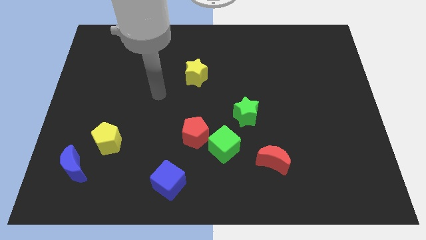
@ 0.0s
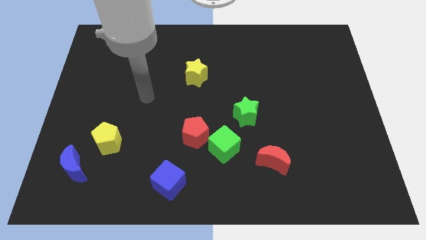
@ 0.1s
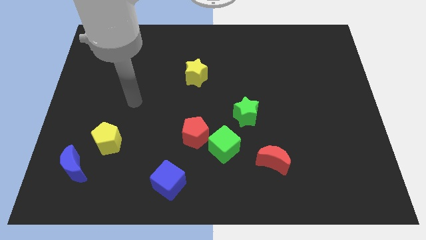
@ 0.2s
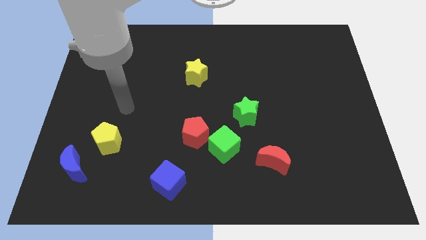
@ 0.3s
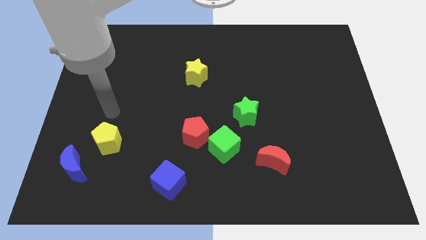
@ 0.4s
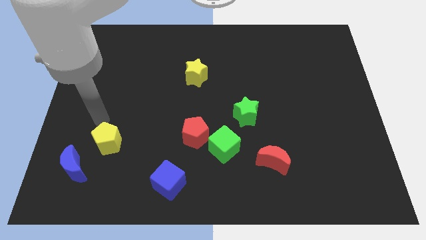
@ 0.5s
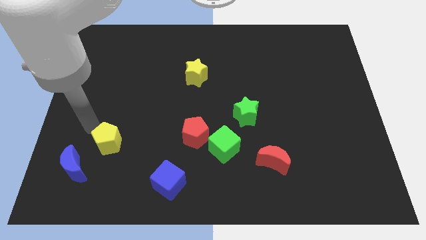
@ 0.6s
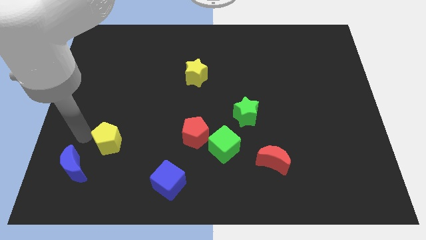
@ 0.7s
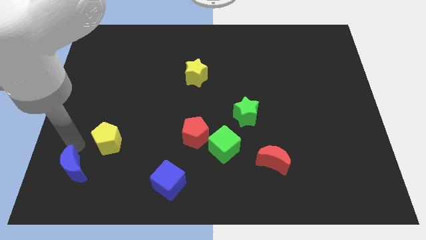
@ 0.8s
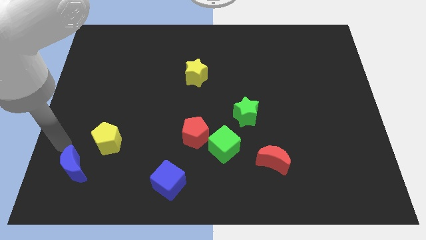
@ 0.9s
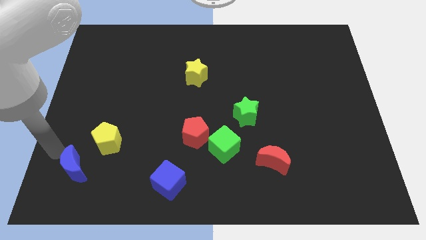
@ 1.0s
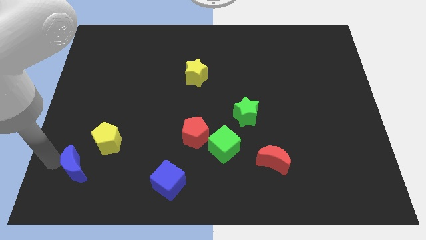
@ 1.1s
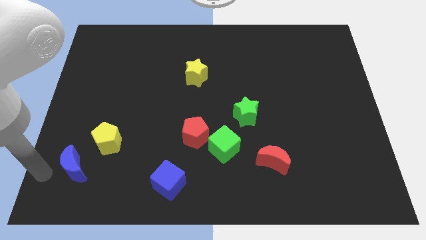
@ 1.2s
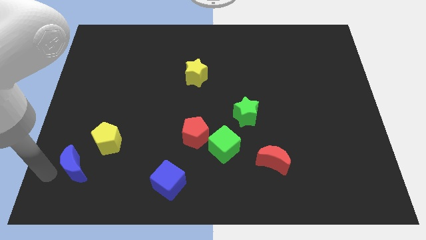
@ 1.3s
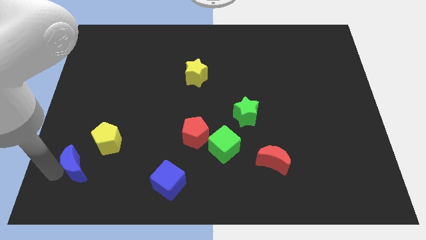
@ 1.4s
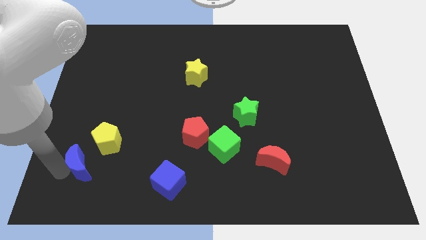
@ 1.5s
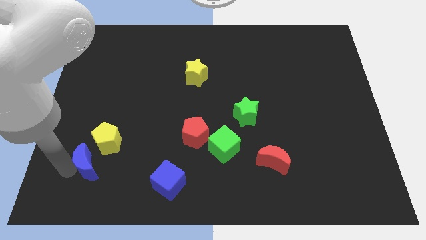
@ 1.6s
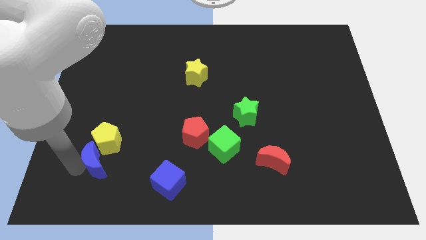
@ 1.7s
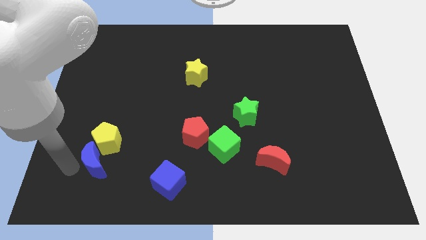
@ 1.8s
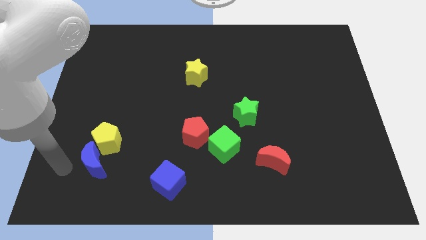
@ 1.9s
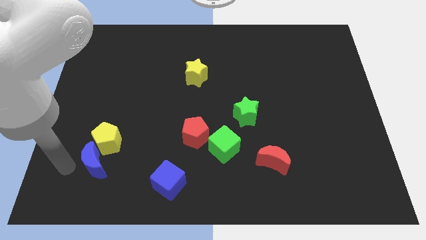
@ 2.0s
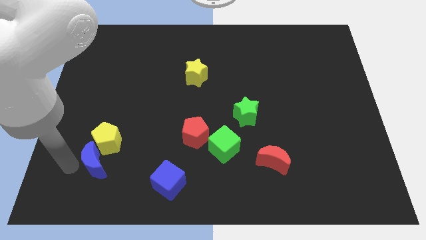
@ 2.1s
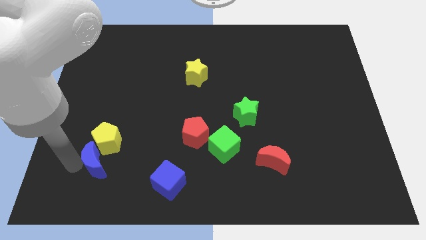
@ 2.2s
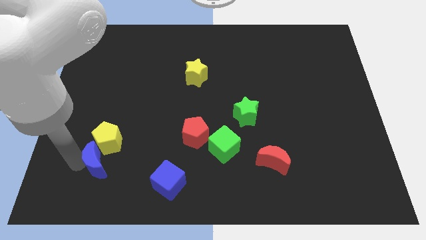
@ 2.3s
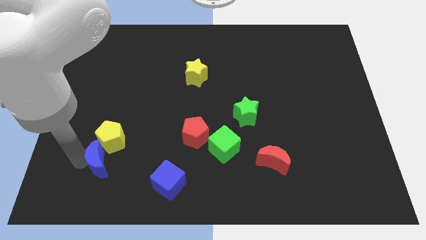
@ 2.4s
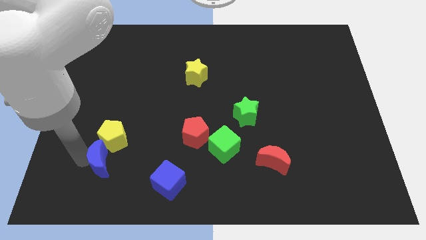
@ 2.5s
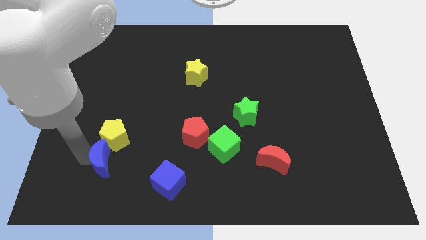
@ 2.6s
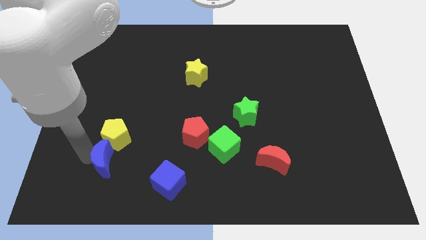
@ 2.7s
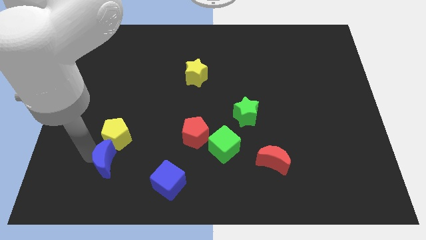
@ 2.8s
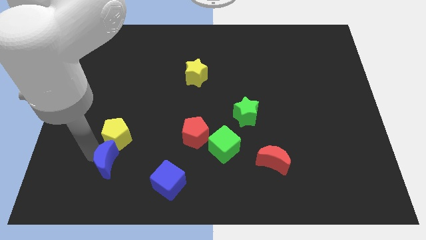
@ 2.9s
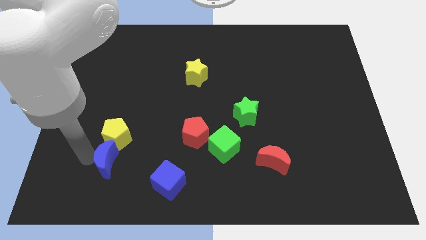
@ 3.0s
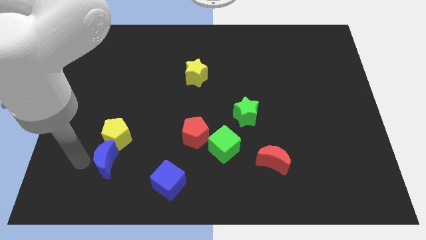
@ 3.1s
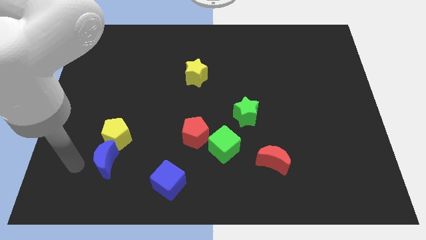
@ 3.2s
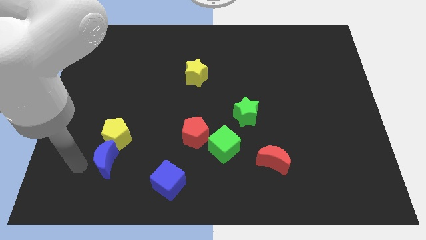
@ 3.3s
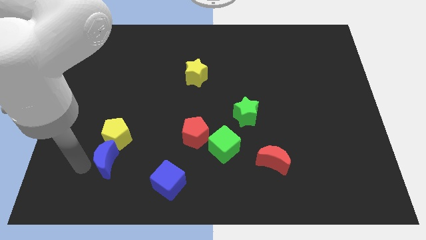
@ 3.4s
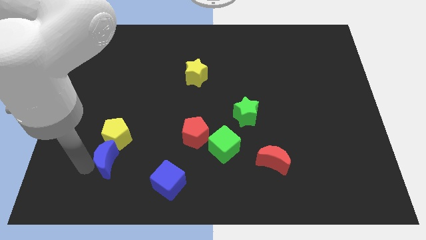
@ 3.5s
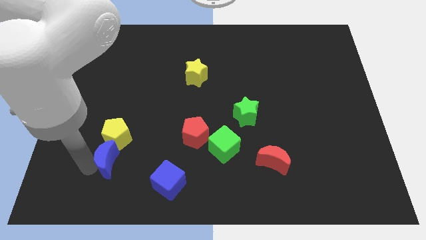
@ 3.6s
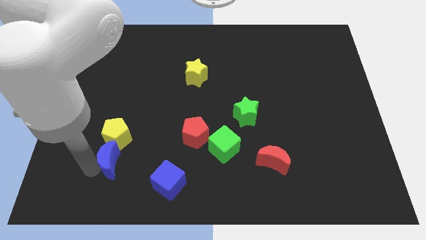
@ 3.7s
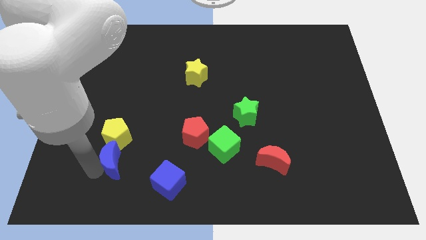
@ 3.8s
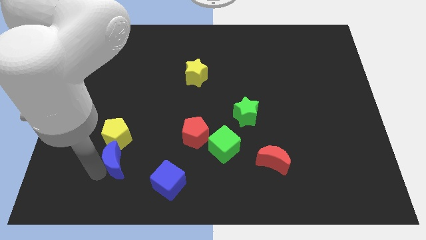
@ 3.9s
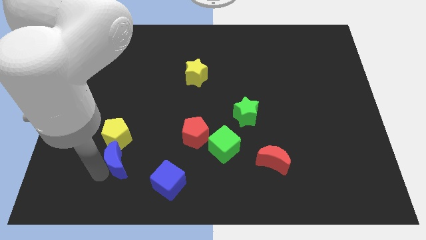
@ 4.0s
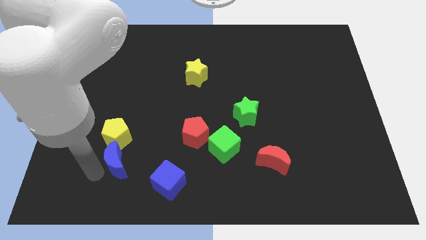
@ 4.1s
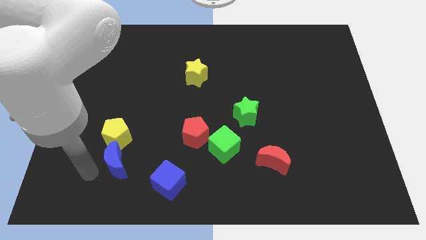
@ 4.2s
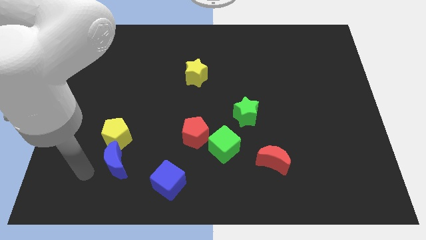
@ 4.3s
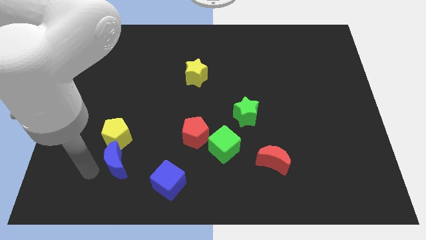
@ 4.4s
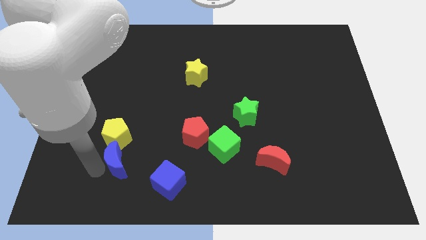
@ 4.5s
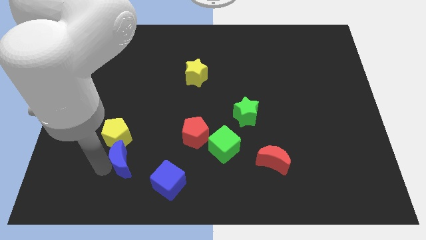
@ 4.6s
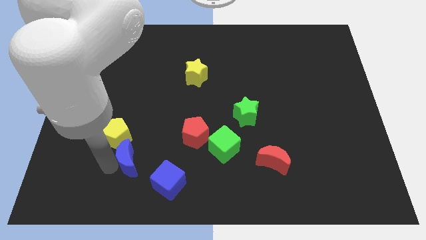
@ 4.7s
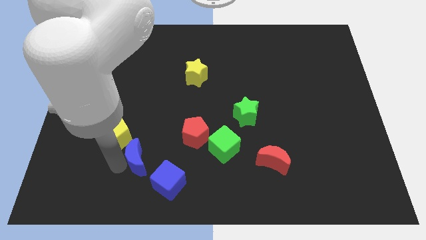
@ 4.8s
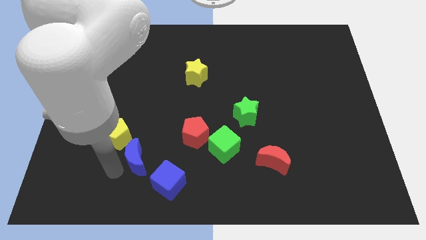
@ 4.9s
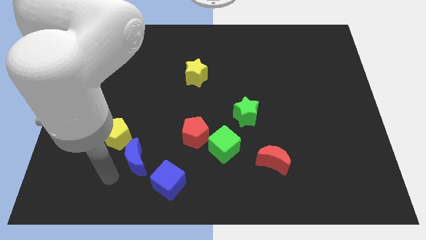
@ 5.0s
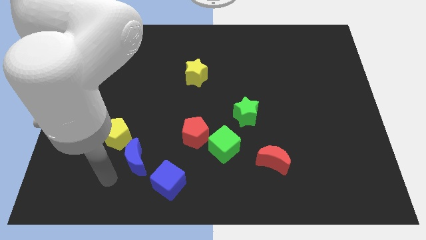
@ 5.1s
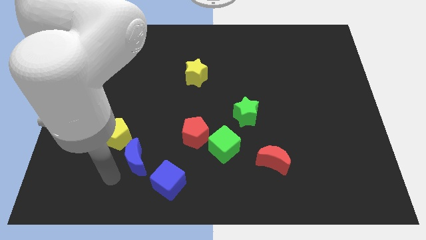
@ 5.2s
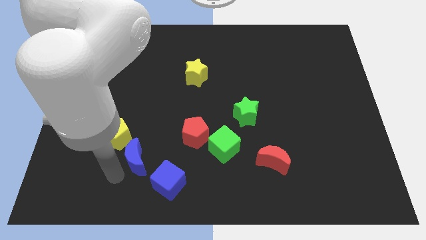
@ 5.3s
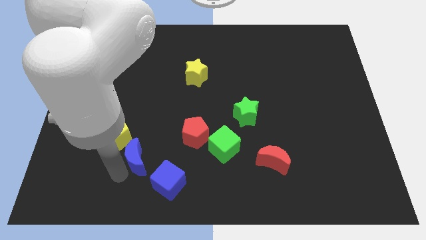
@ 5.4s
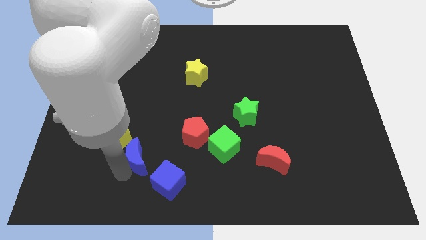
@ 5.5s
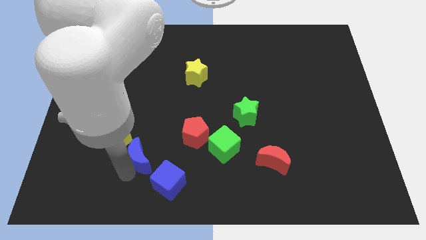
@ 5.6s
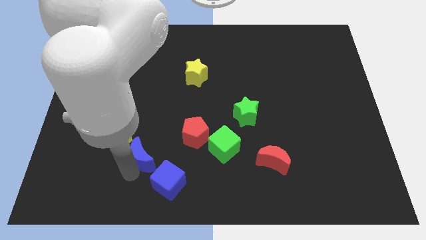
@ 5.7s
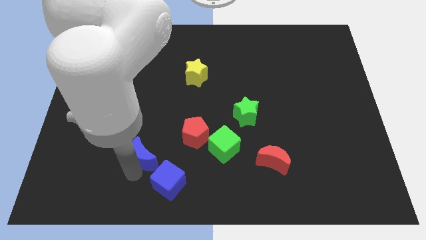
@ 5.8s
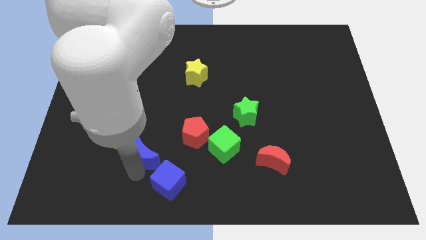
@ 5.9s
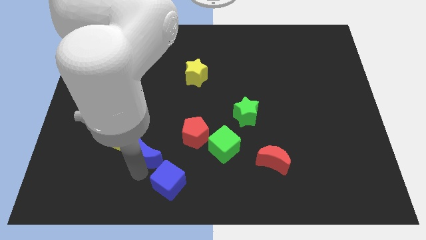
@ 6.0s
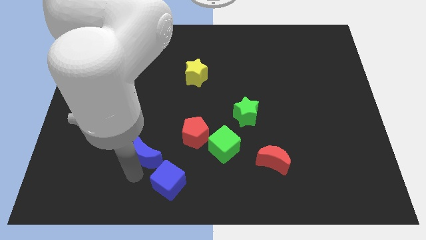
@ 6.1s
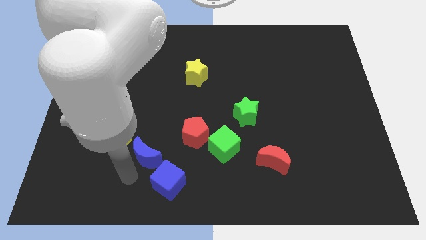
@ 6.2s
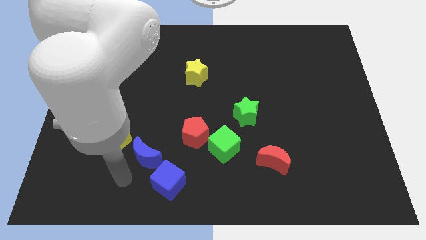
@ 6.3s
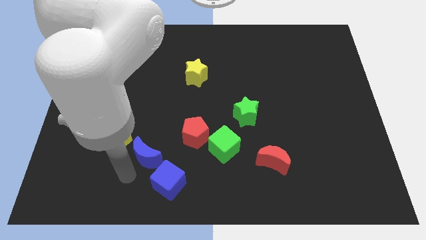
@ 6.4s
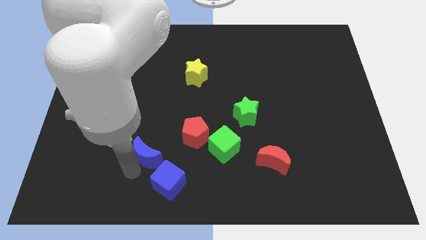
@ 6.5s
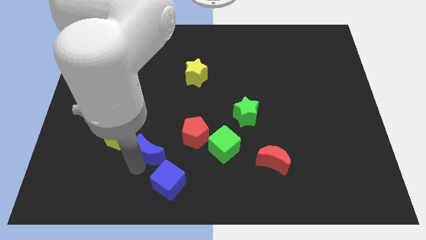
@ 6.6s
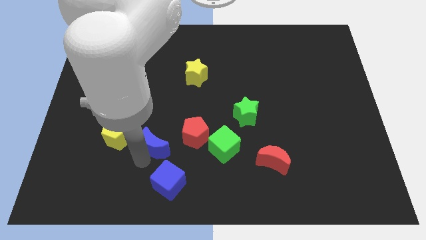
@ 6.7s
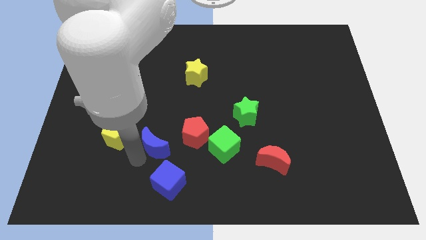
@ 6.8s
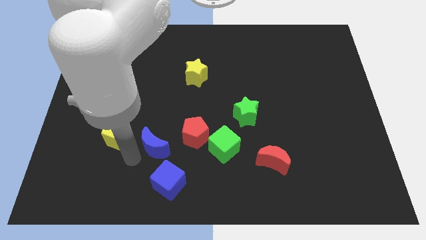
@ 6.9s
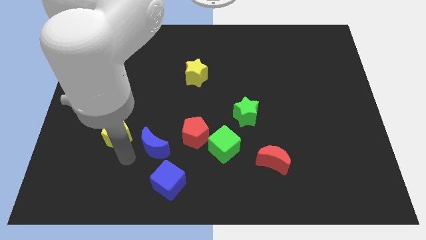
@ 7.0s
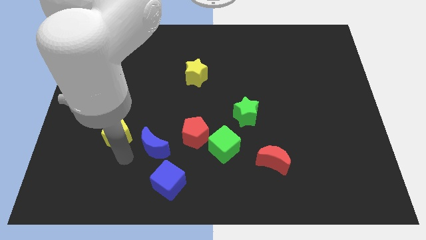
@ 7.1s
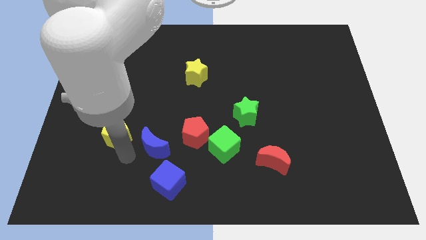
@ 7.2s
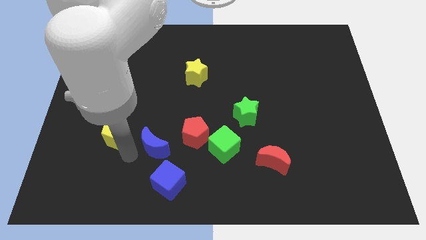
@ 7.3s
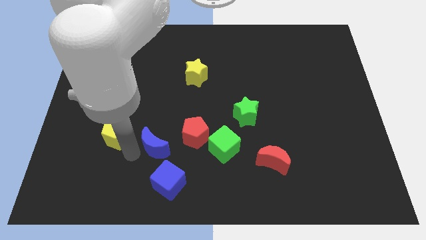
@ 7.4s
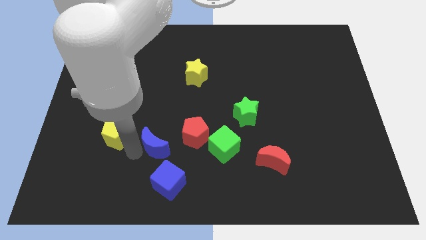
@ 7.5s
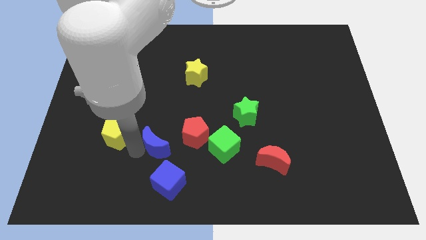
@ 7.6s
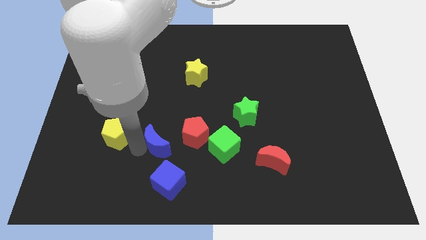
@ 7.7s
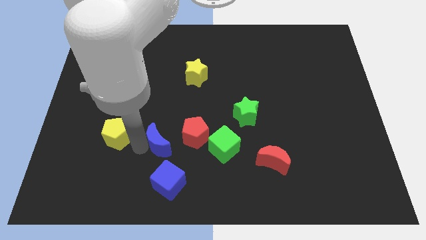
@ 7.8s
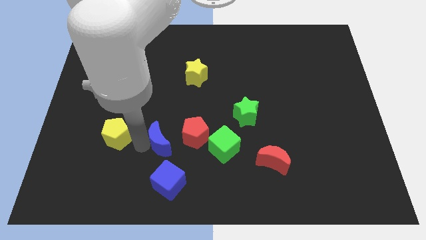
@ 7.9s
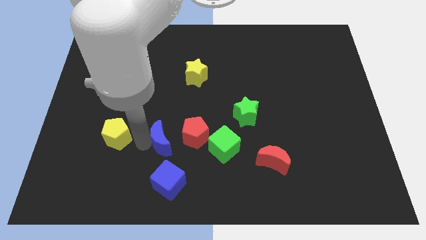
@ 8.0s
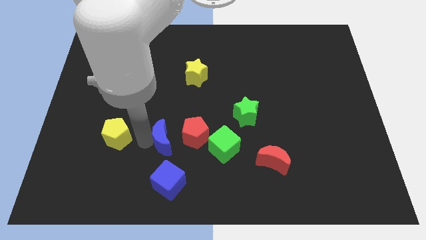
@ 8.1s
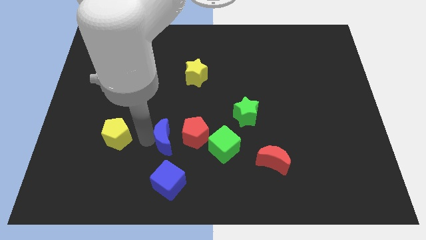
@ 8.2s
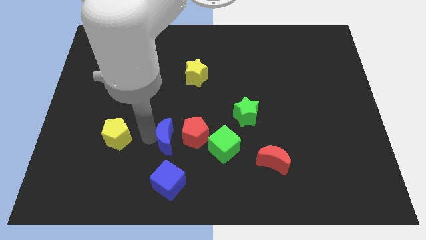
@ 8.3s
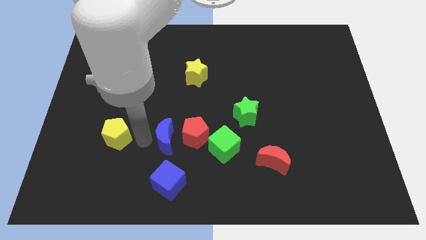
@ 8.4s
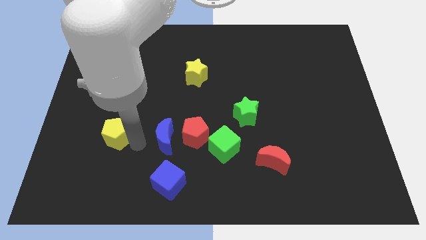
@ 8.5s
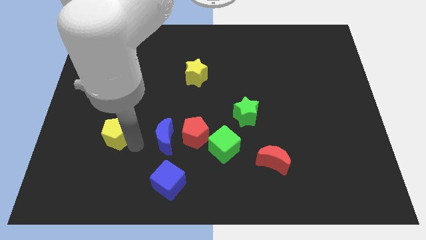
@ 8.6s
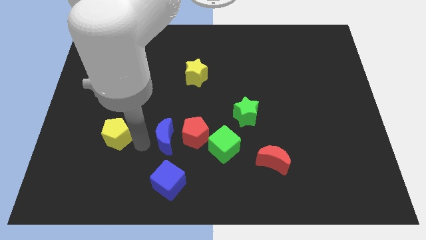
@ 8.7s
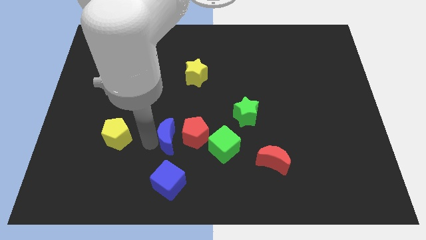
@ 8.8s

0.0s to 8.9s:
slide the blue moon close to the red pentagon
